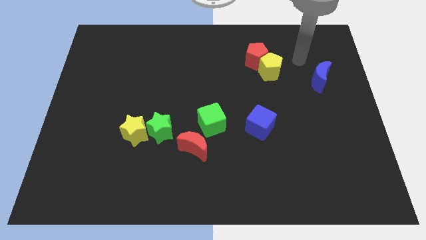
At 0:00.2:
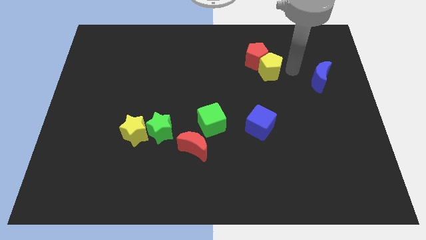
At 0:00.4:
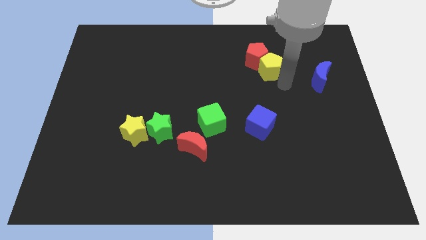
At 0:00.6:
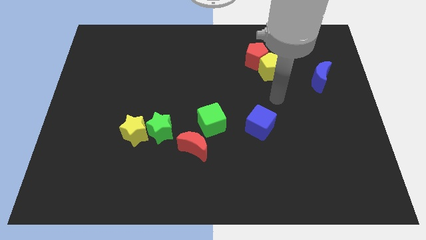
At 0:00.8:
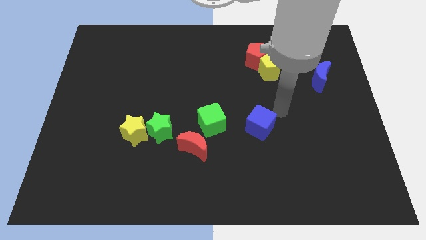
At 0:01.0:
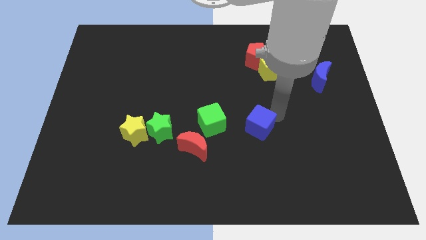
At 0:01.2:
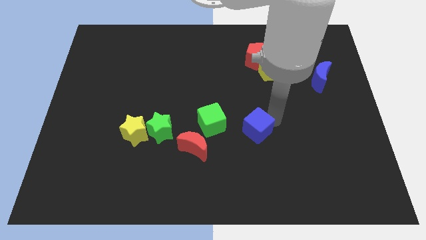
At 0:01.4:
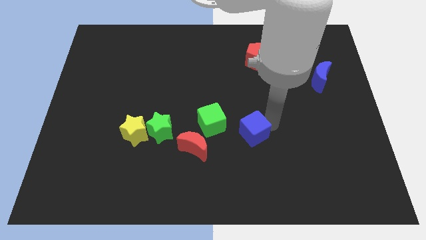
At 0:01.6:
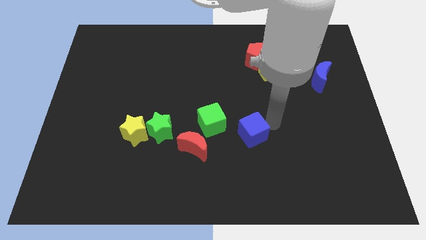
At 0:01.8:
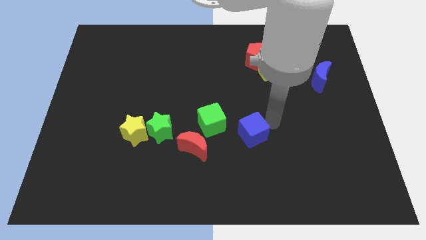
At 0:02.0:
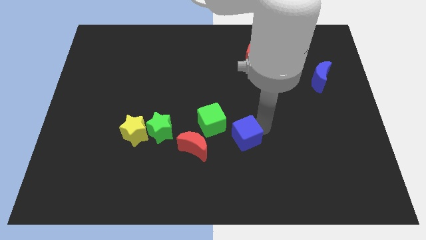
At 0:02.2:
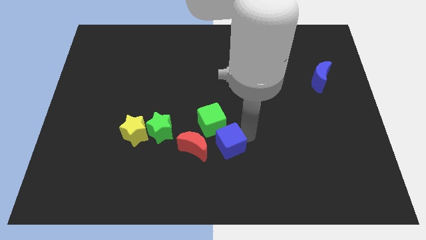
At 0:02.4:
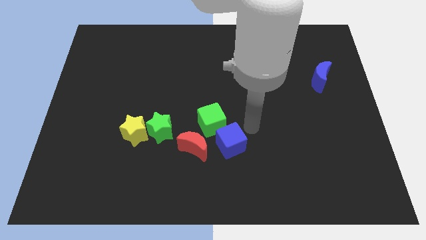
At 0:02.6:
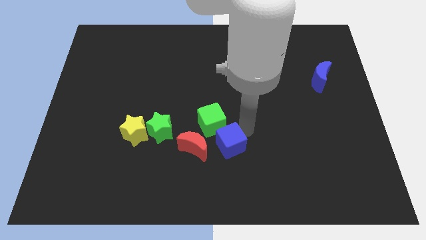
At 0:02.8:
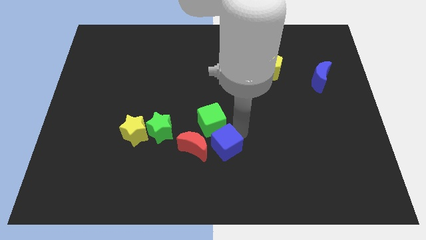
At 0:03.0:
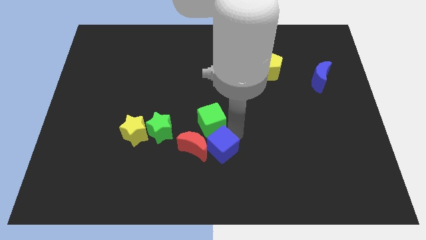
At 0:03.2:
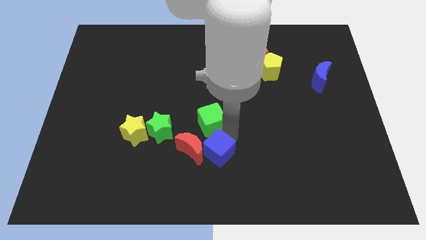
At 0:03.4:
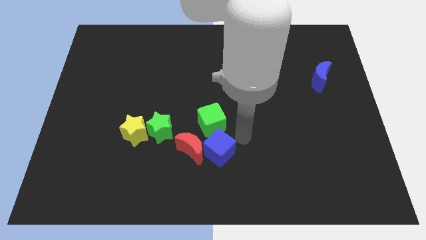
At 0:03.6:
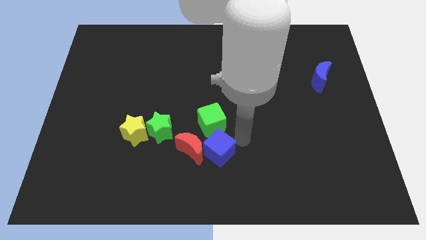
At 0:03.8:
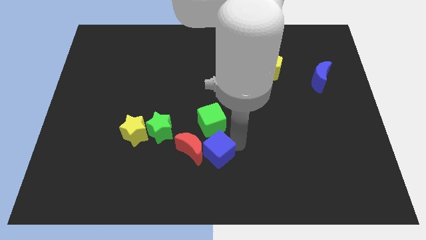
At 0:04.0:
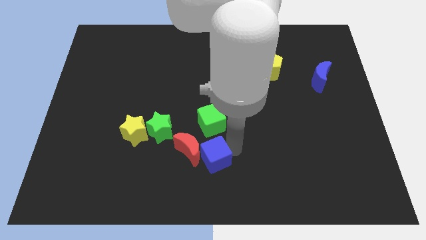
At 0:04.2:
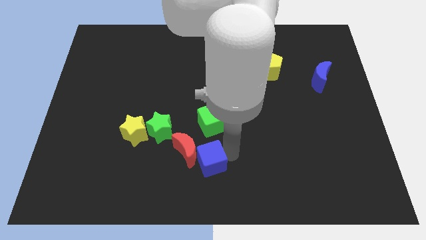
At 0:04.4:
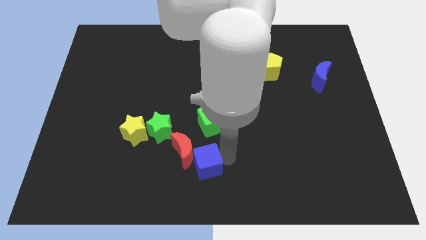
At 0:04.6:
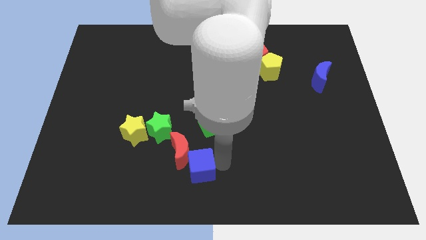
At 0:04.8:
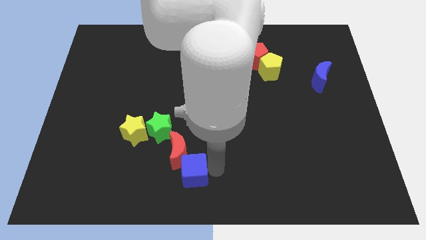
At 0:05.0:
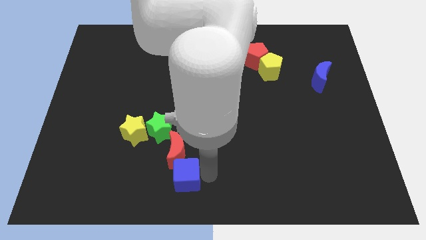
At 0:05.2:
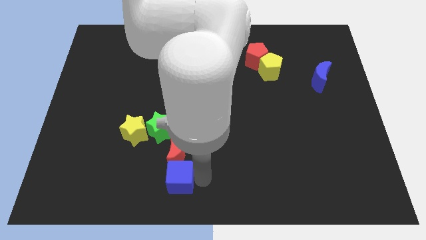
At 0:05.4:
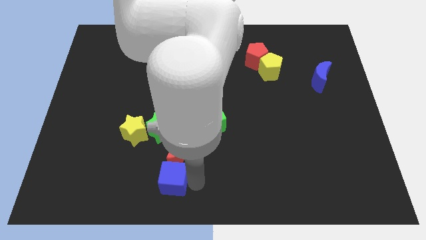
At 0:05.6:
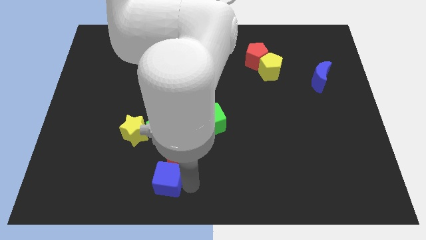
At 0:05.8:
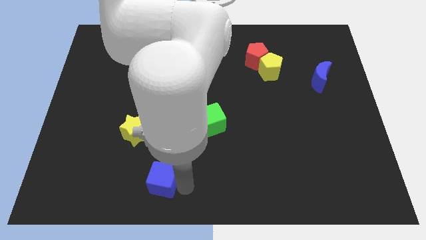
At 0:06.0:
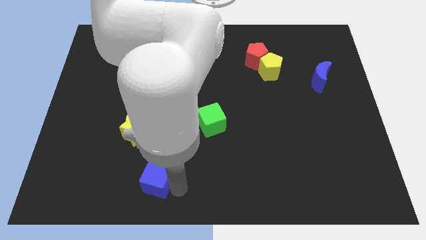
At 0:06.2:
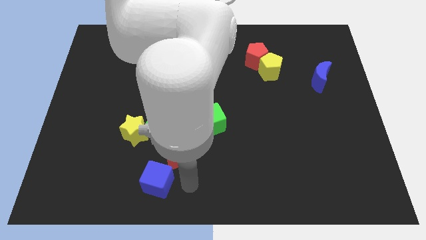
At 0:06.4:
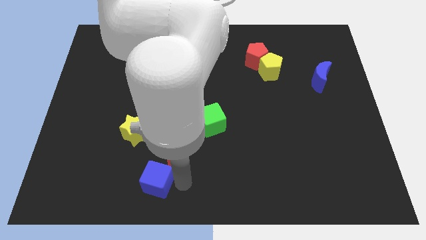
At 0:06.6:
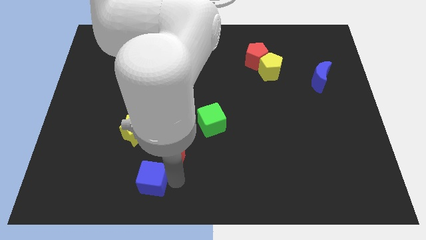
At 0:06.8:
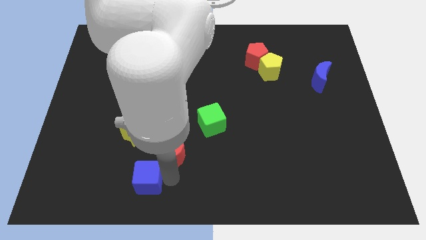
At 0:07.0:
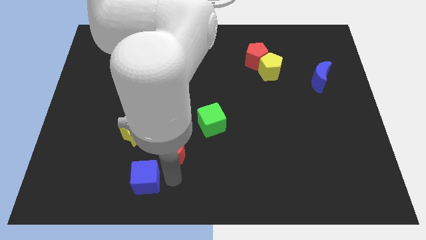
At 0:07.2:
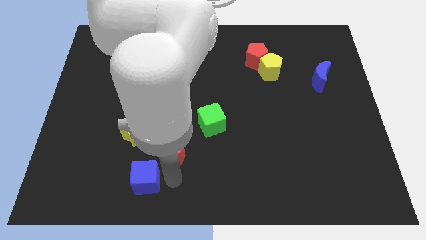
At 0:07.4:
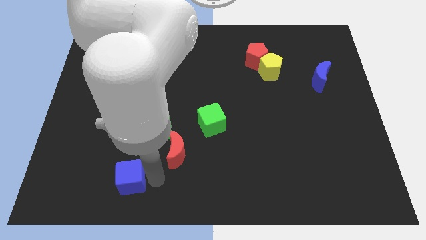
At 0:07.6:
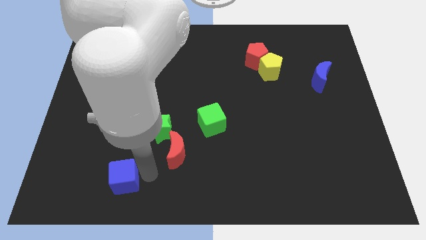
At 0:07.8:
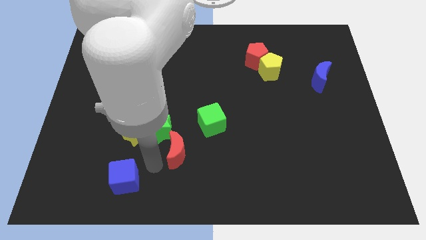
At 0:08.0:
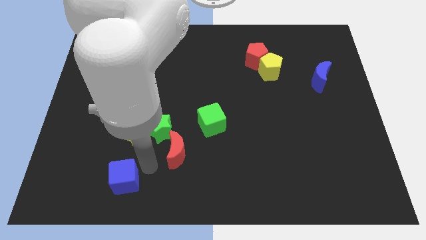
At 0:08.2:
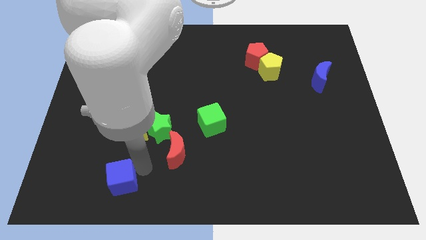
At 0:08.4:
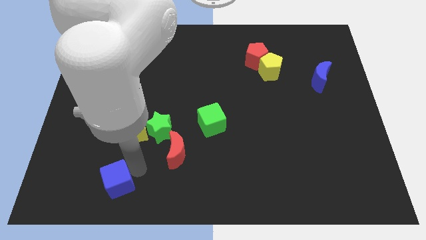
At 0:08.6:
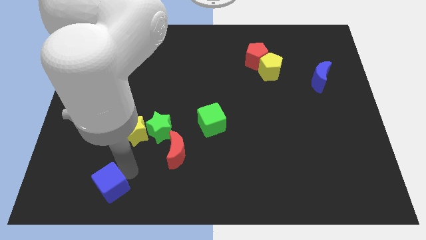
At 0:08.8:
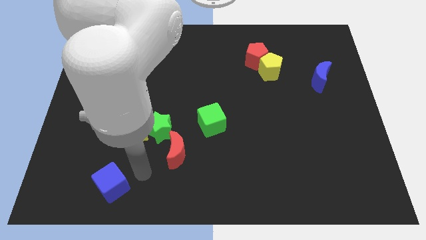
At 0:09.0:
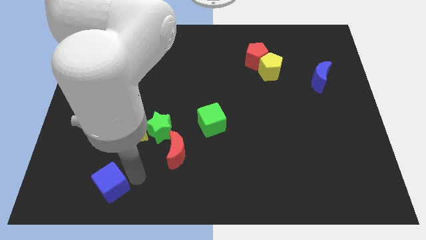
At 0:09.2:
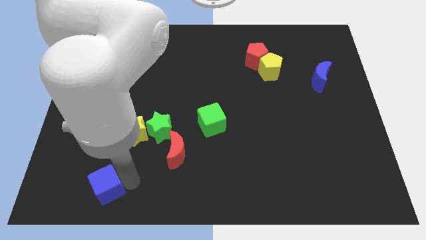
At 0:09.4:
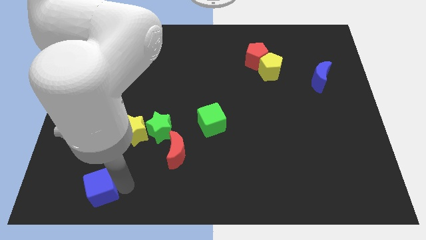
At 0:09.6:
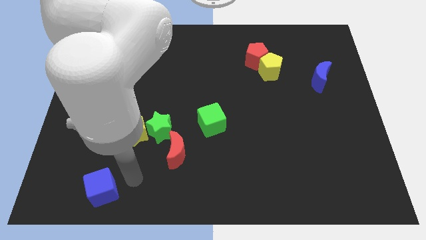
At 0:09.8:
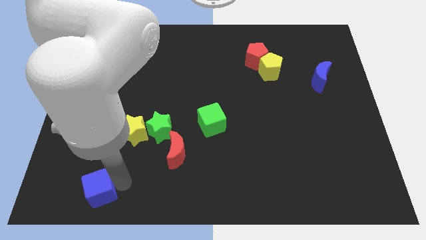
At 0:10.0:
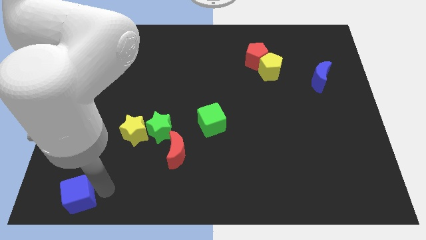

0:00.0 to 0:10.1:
slide the blue cube to the bottom left of the board

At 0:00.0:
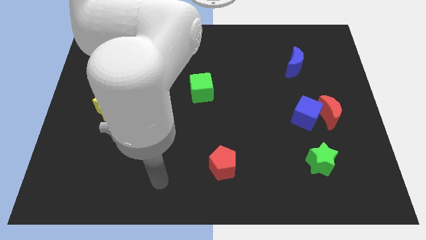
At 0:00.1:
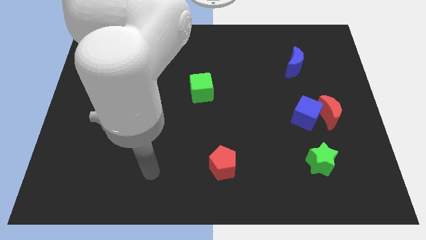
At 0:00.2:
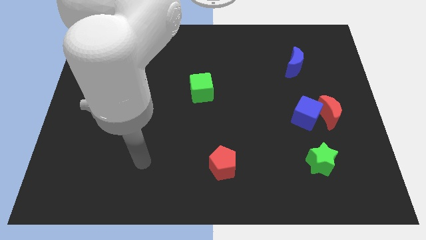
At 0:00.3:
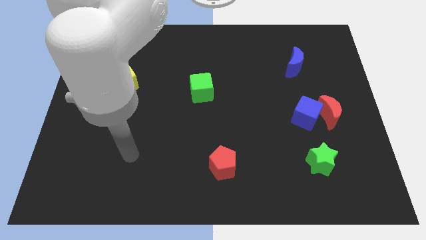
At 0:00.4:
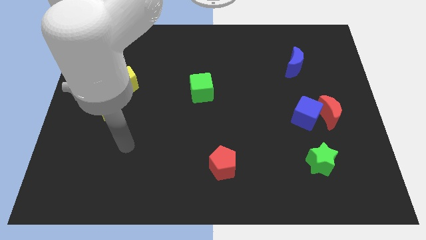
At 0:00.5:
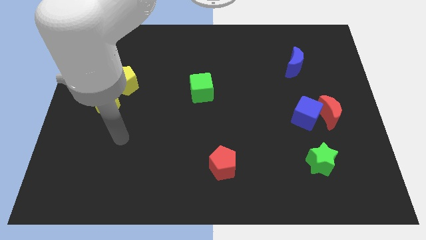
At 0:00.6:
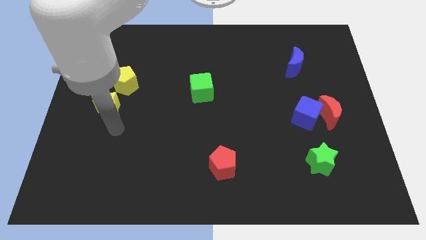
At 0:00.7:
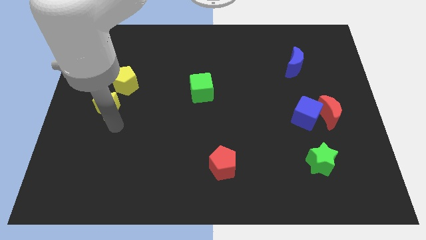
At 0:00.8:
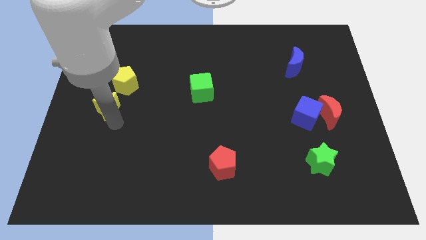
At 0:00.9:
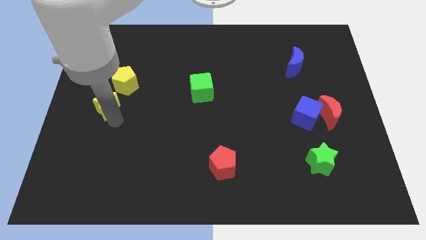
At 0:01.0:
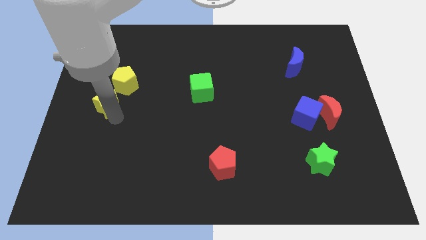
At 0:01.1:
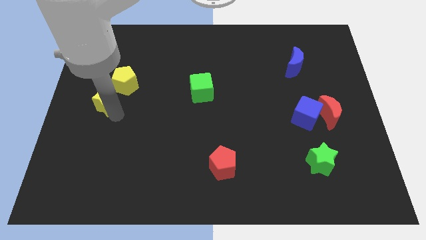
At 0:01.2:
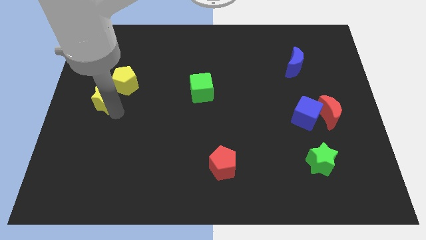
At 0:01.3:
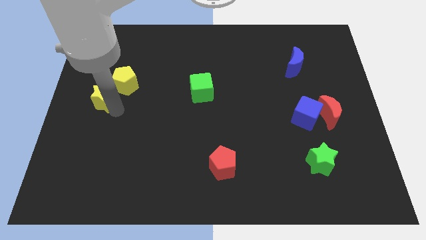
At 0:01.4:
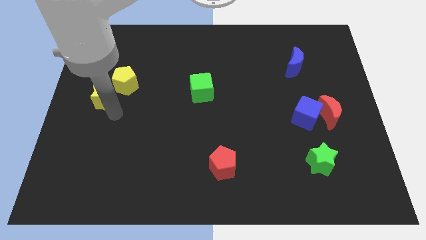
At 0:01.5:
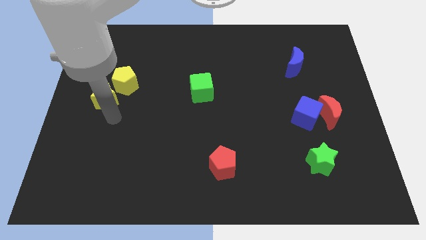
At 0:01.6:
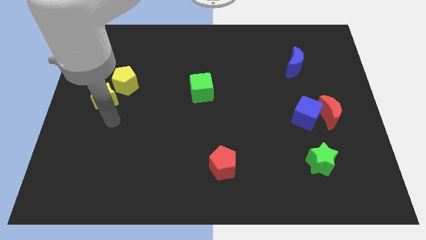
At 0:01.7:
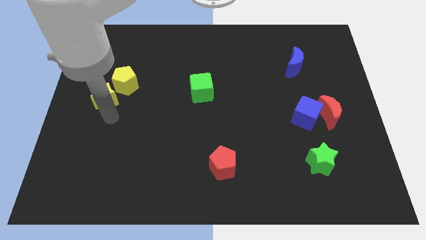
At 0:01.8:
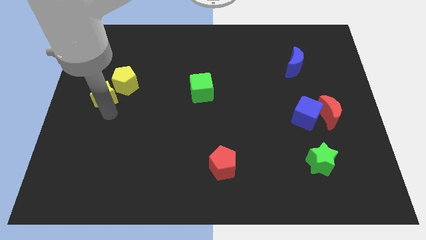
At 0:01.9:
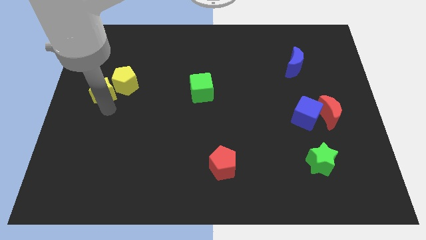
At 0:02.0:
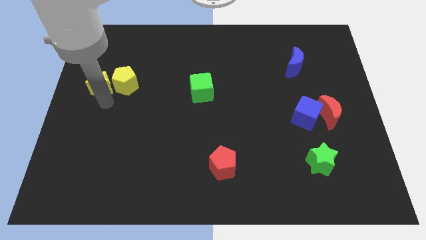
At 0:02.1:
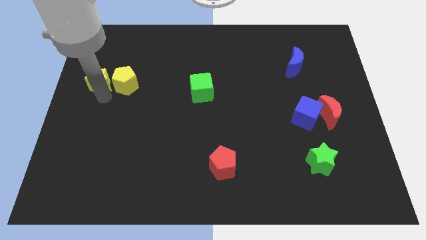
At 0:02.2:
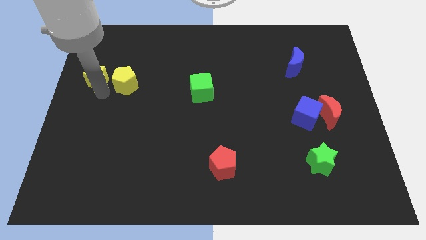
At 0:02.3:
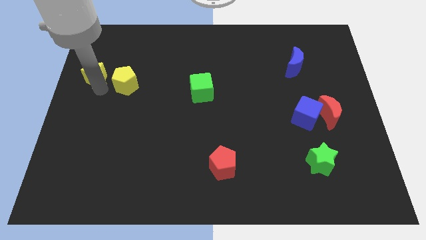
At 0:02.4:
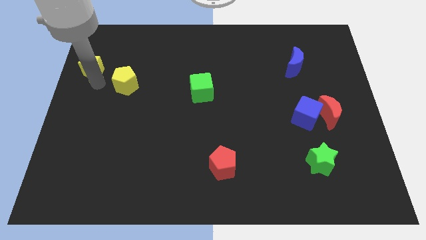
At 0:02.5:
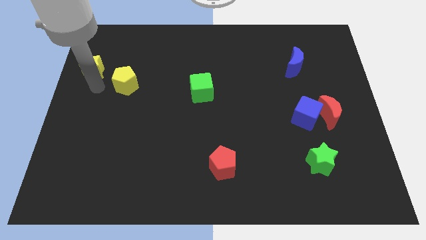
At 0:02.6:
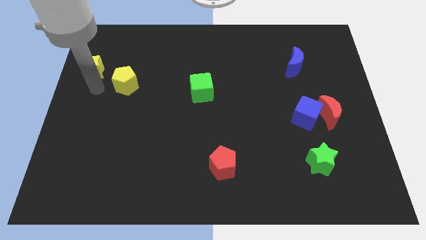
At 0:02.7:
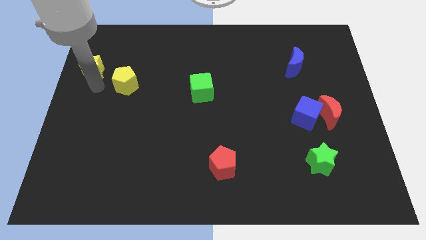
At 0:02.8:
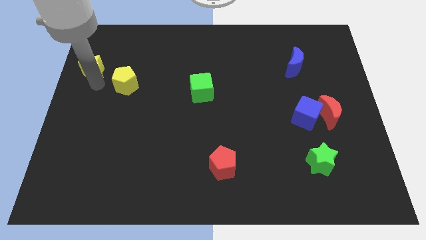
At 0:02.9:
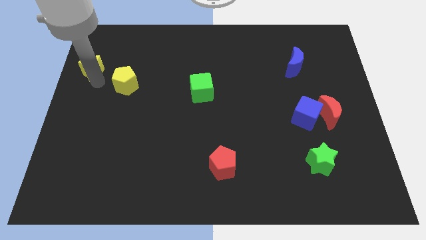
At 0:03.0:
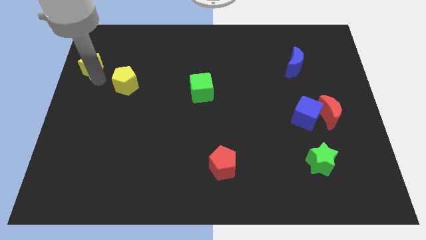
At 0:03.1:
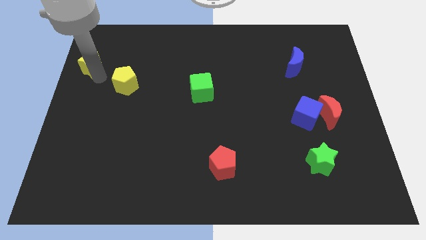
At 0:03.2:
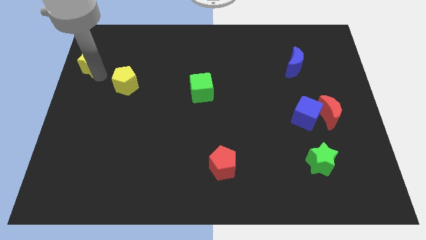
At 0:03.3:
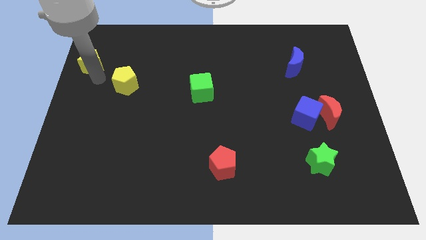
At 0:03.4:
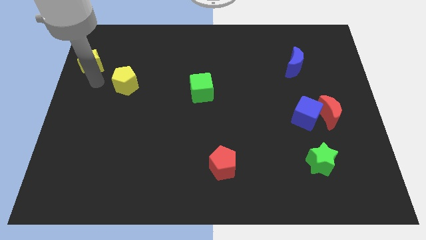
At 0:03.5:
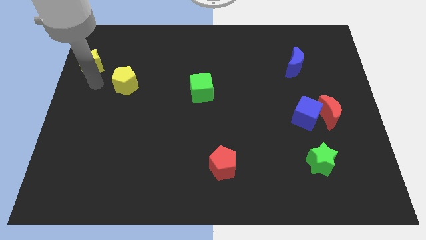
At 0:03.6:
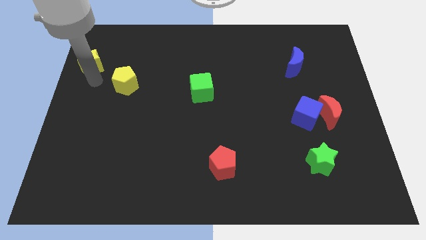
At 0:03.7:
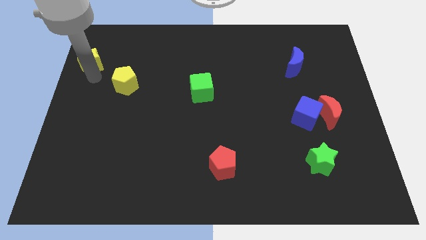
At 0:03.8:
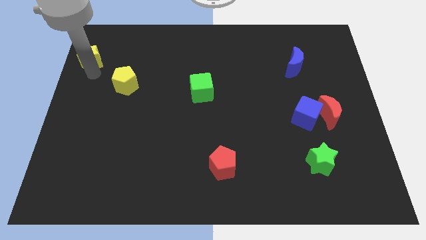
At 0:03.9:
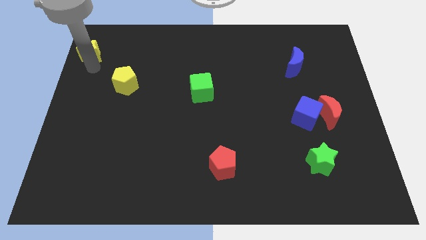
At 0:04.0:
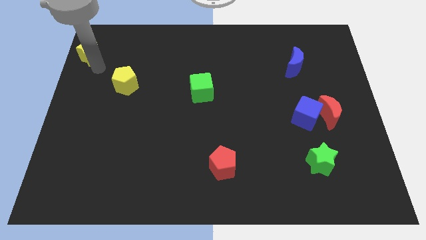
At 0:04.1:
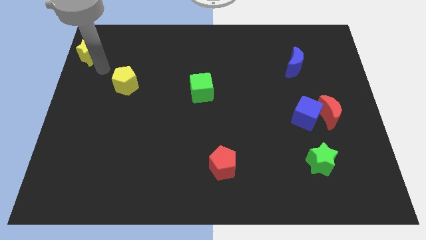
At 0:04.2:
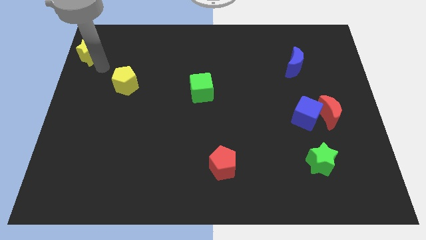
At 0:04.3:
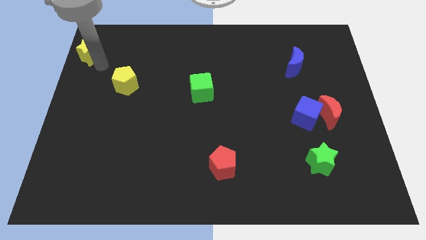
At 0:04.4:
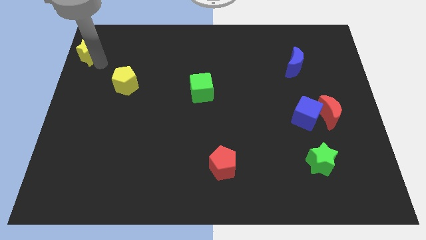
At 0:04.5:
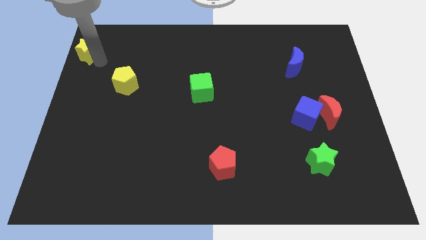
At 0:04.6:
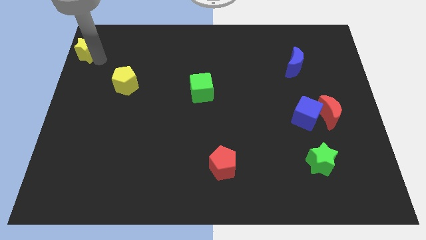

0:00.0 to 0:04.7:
push the yellow star to the top left corner
